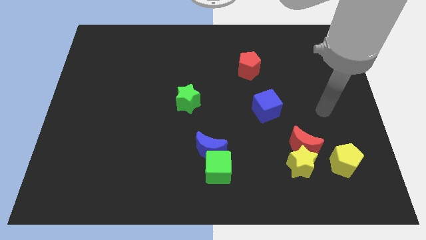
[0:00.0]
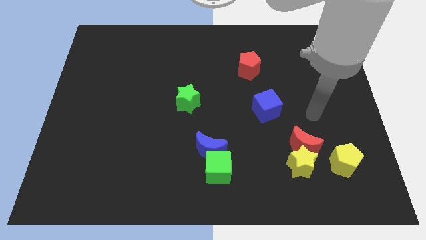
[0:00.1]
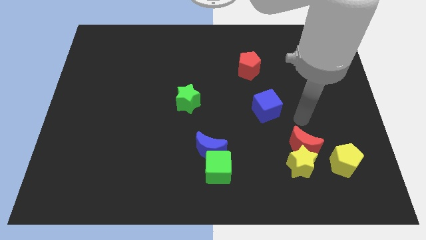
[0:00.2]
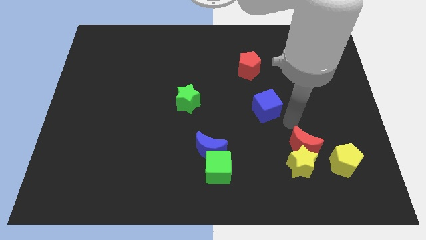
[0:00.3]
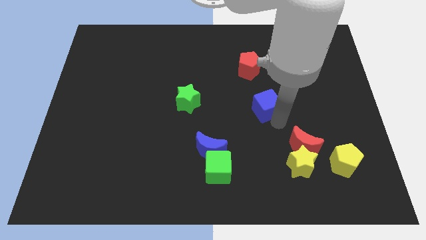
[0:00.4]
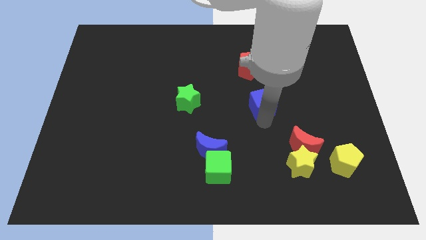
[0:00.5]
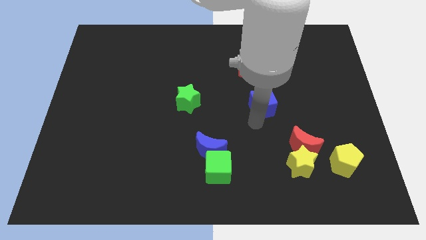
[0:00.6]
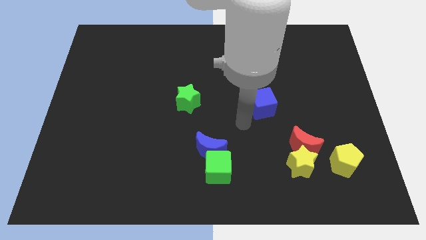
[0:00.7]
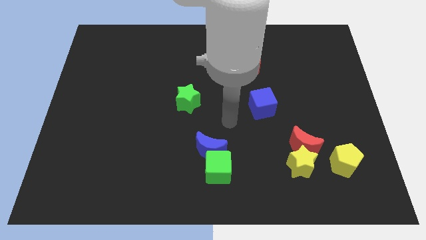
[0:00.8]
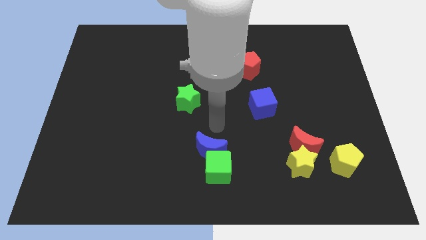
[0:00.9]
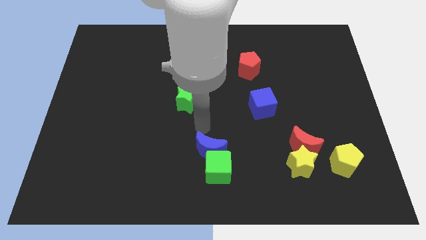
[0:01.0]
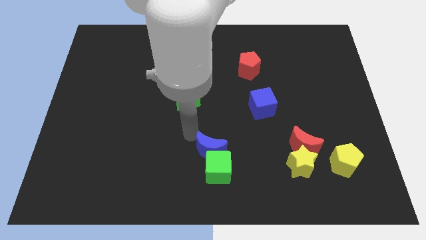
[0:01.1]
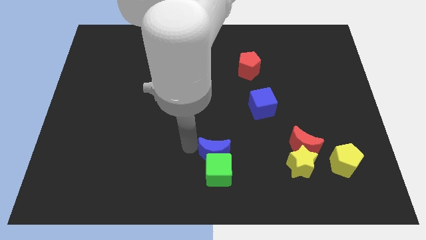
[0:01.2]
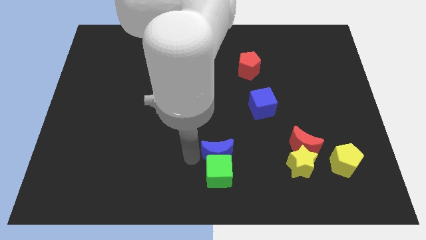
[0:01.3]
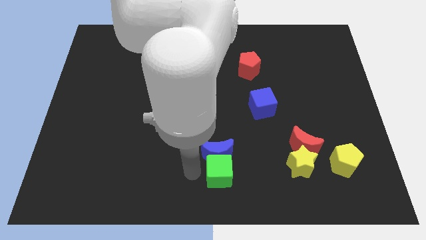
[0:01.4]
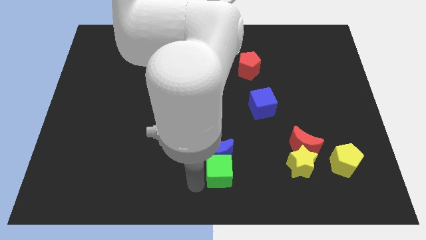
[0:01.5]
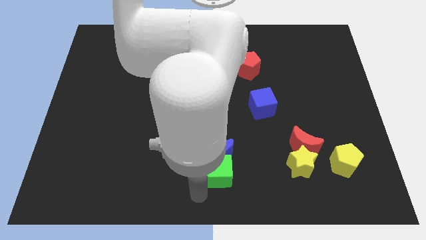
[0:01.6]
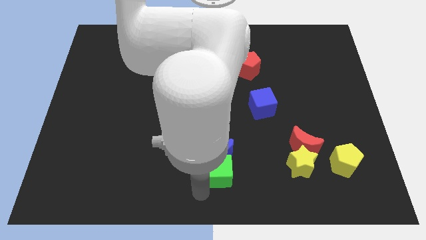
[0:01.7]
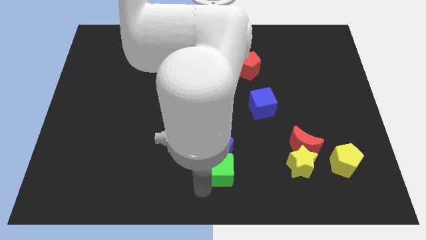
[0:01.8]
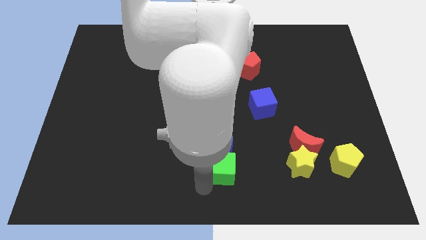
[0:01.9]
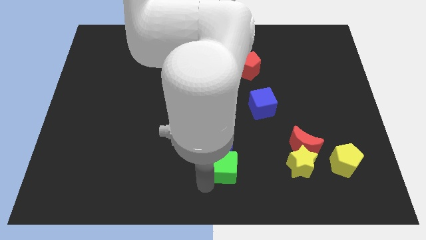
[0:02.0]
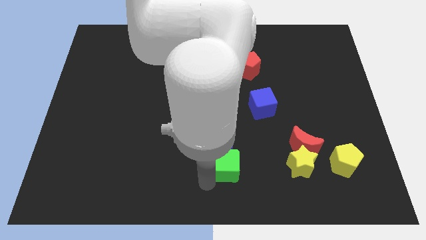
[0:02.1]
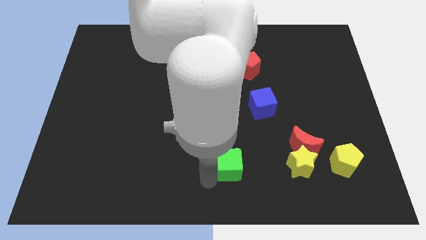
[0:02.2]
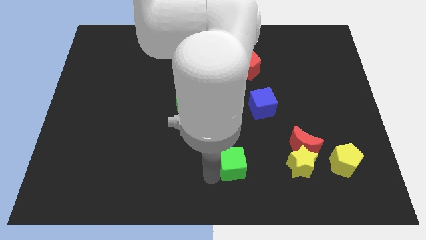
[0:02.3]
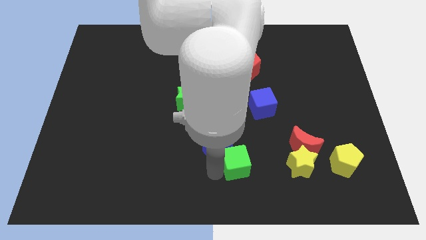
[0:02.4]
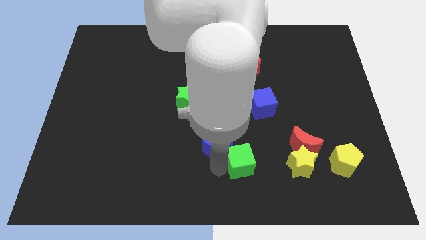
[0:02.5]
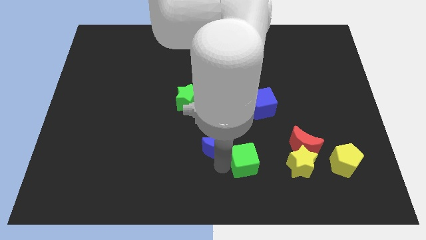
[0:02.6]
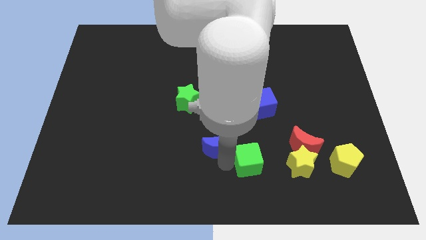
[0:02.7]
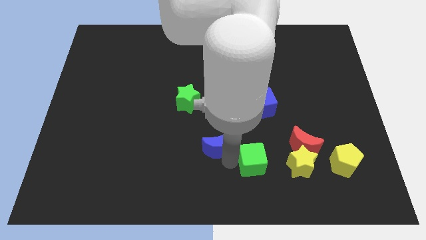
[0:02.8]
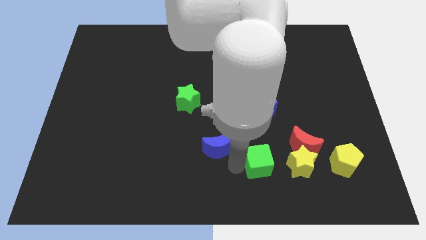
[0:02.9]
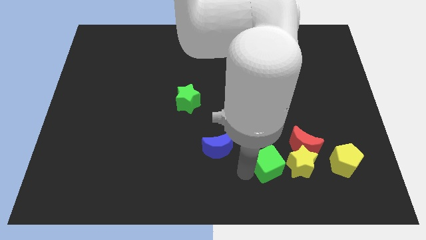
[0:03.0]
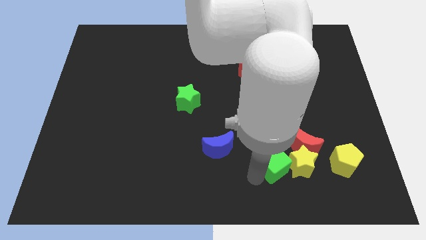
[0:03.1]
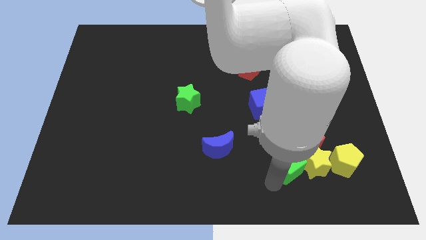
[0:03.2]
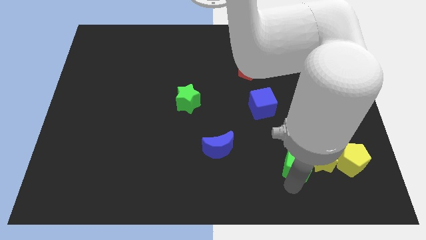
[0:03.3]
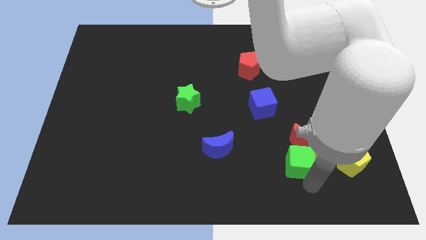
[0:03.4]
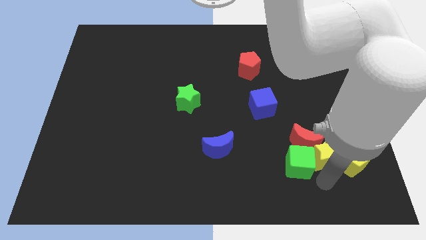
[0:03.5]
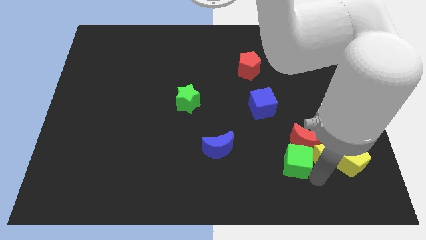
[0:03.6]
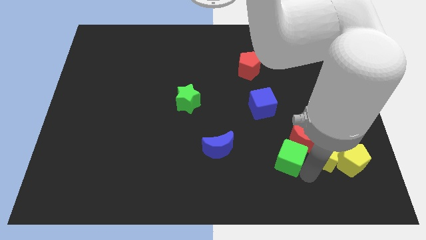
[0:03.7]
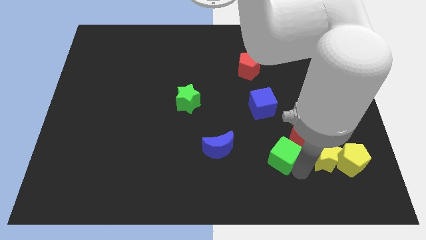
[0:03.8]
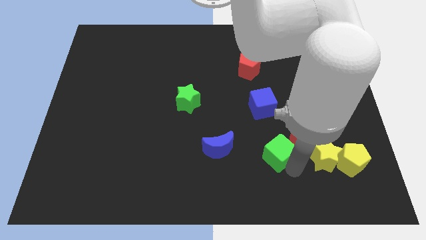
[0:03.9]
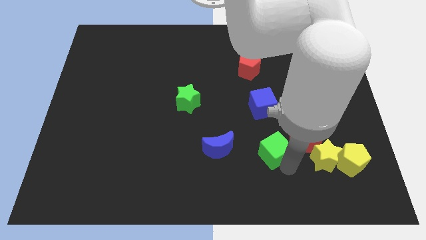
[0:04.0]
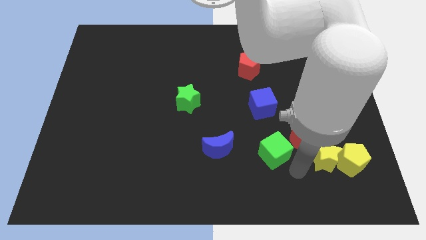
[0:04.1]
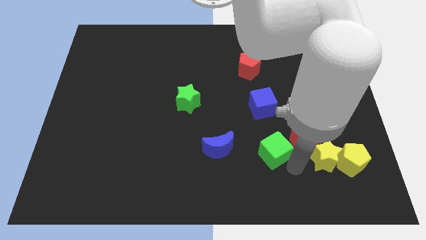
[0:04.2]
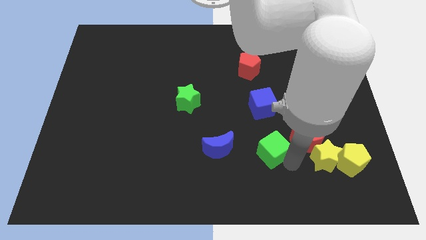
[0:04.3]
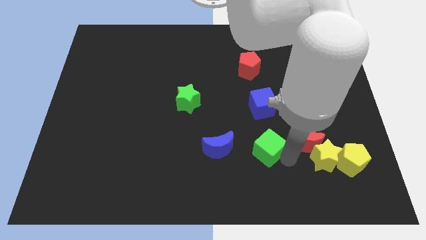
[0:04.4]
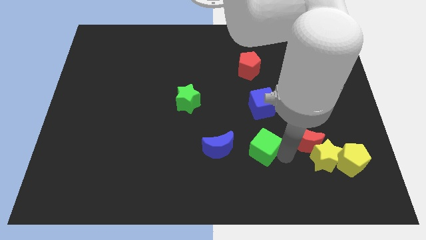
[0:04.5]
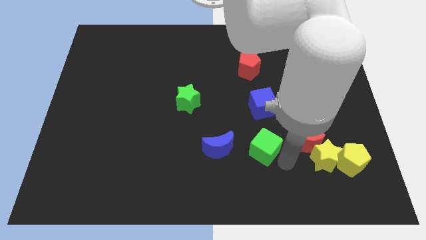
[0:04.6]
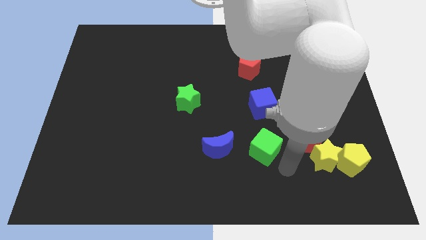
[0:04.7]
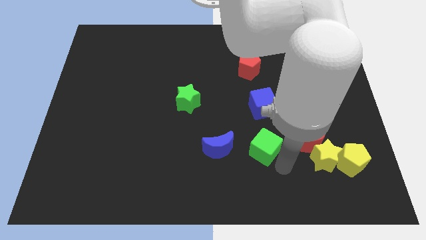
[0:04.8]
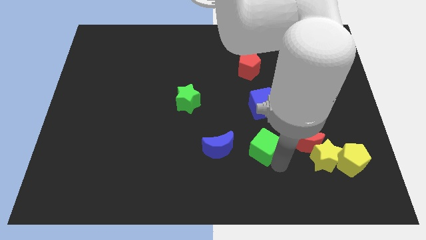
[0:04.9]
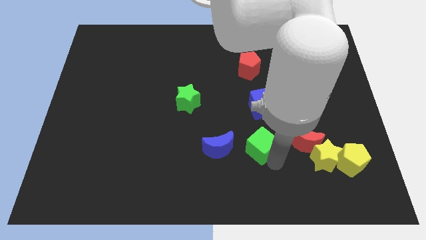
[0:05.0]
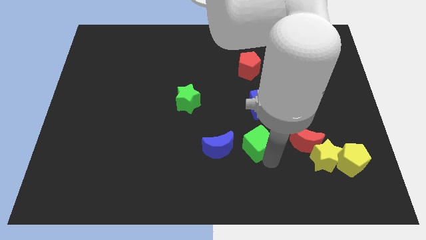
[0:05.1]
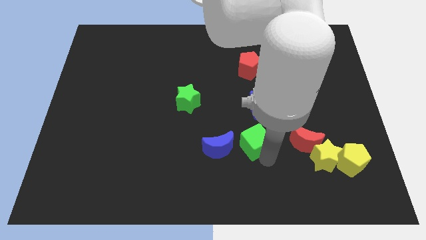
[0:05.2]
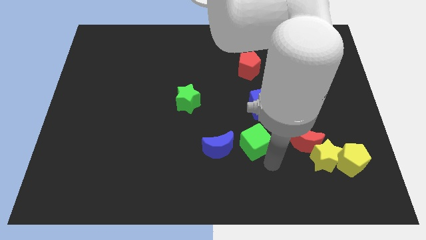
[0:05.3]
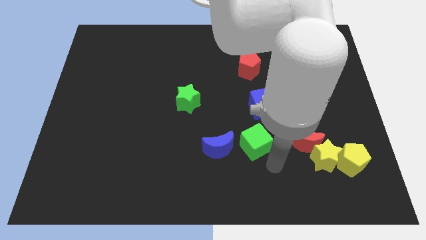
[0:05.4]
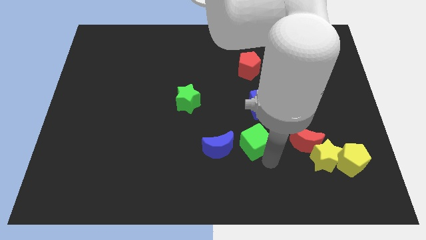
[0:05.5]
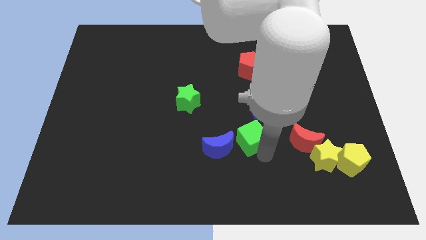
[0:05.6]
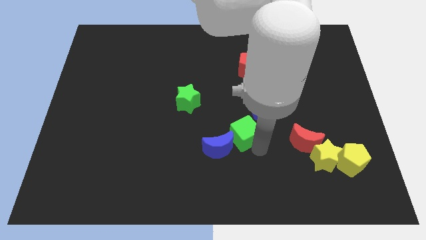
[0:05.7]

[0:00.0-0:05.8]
push the green cube slightly up

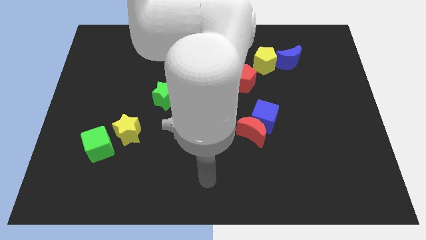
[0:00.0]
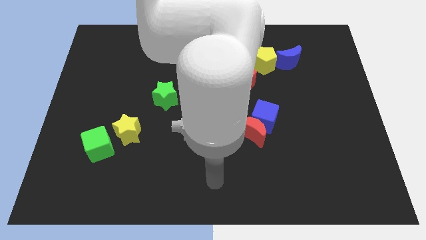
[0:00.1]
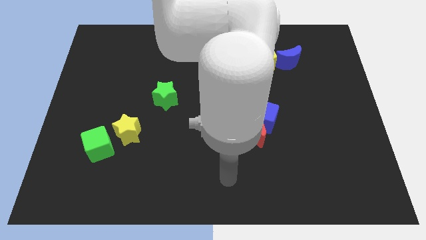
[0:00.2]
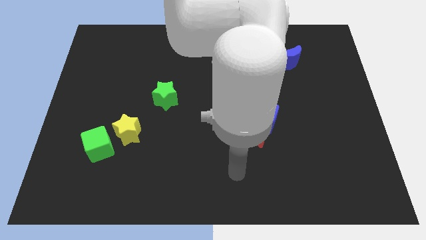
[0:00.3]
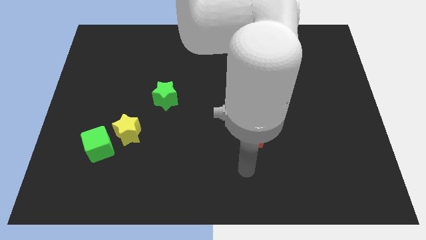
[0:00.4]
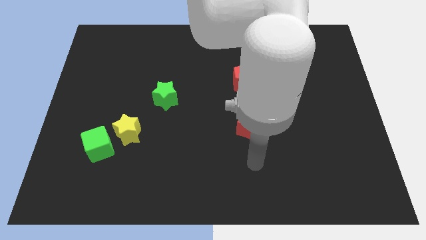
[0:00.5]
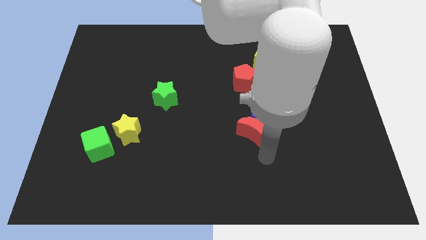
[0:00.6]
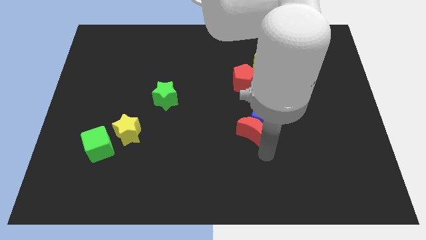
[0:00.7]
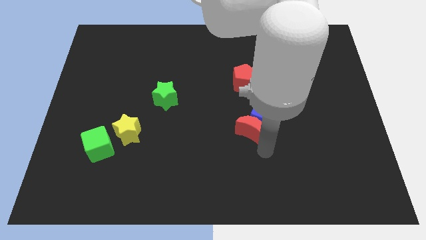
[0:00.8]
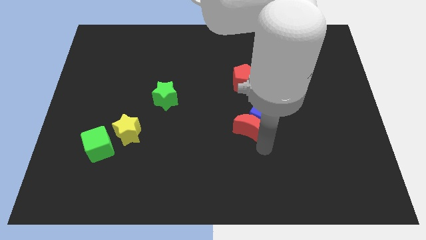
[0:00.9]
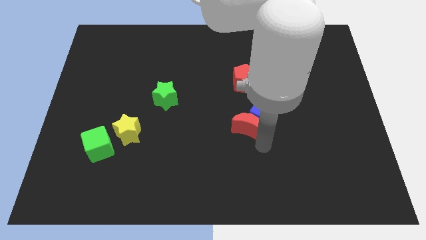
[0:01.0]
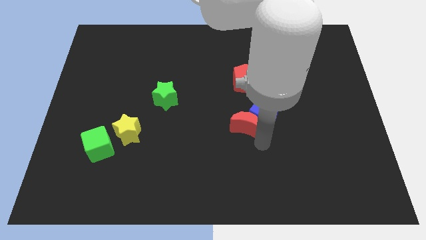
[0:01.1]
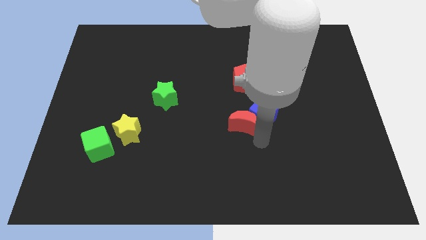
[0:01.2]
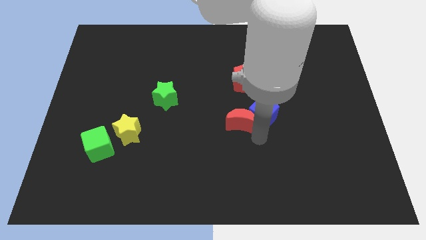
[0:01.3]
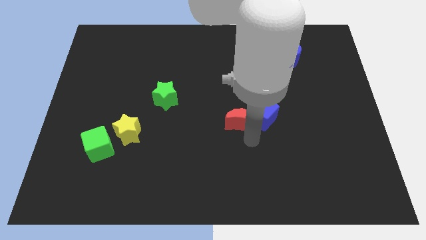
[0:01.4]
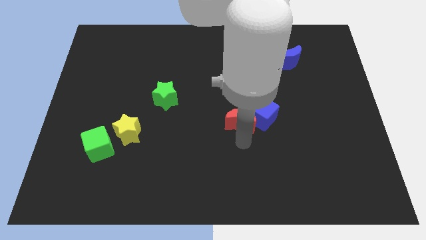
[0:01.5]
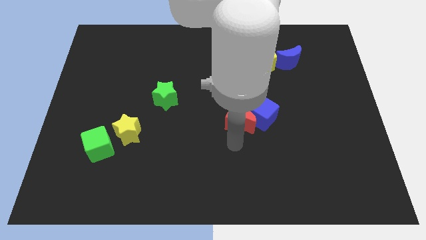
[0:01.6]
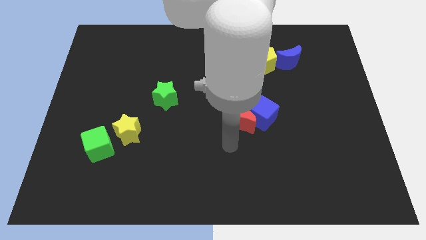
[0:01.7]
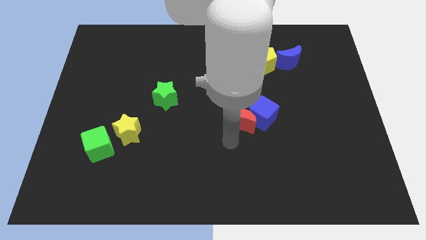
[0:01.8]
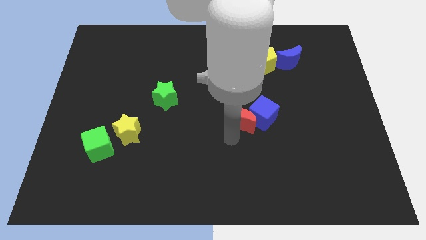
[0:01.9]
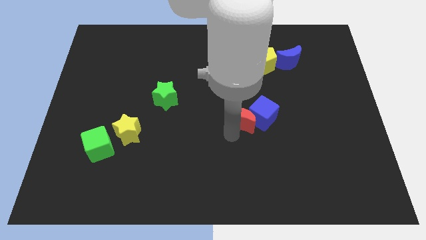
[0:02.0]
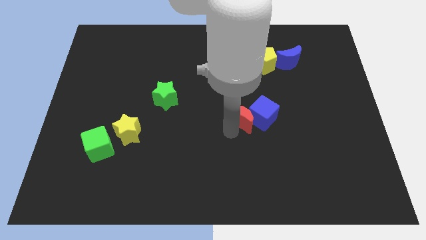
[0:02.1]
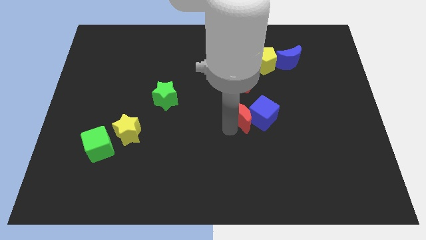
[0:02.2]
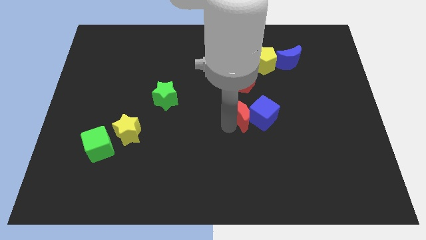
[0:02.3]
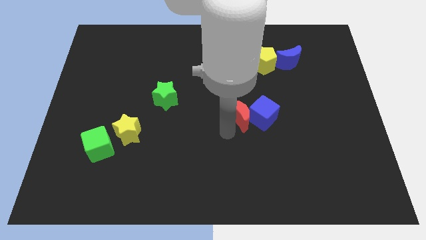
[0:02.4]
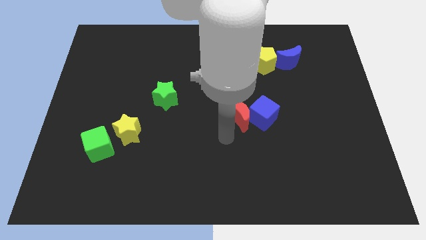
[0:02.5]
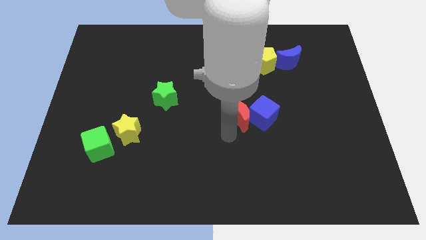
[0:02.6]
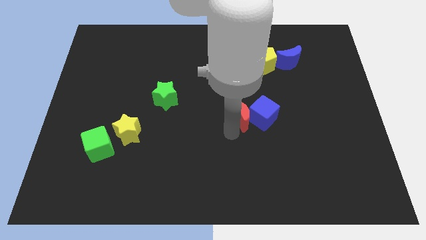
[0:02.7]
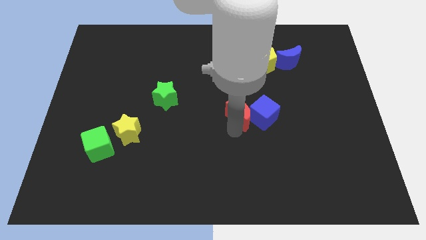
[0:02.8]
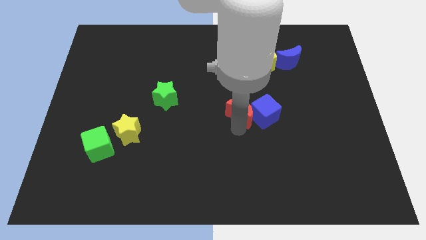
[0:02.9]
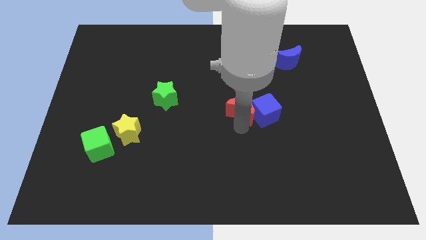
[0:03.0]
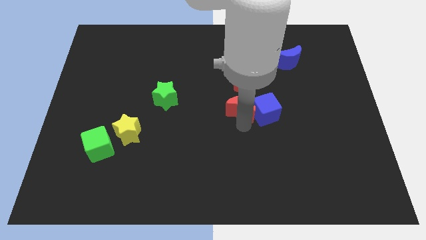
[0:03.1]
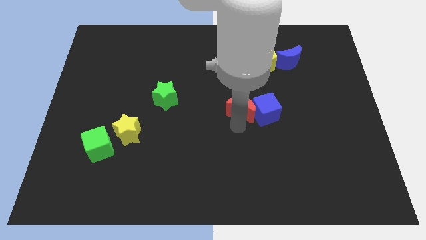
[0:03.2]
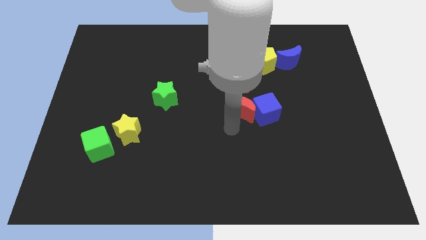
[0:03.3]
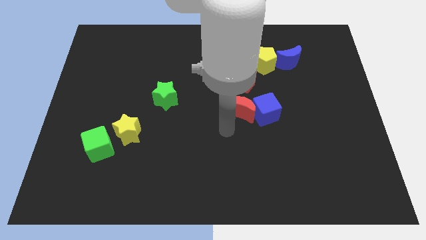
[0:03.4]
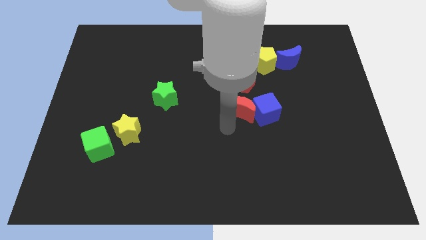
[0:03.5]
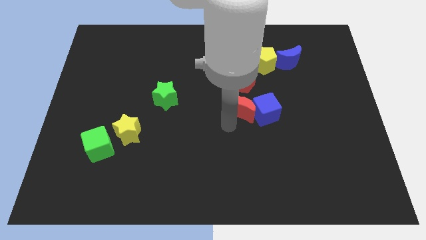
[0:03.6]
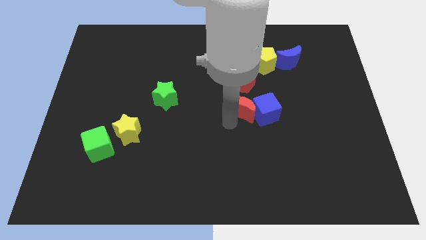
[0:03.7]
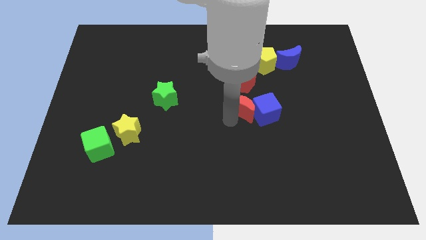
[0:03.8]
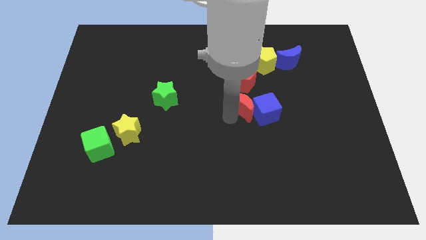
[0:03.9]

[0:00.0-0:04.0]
slightly move the red moon up
